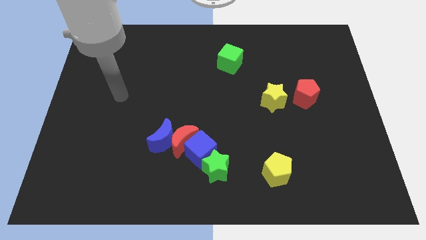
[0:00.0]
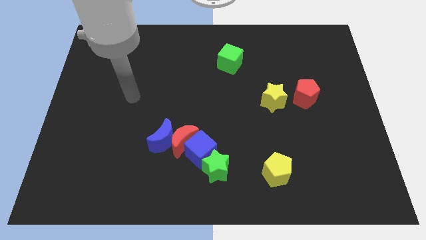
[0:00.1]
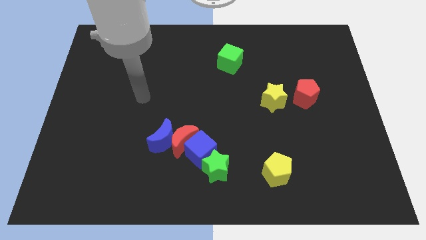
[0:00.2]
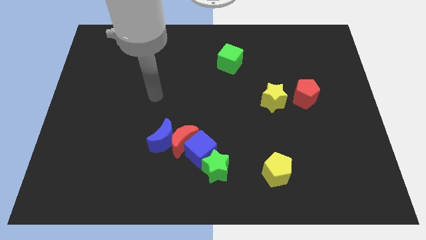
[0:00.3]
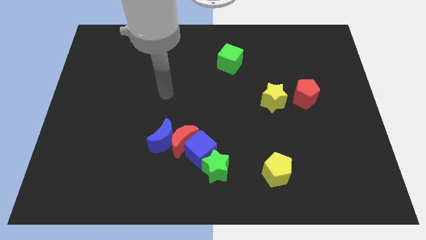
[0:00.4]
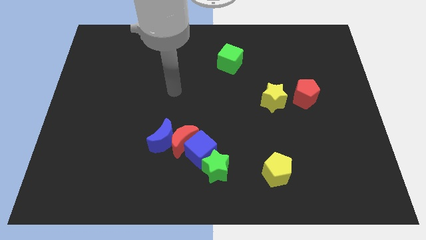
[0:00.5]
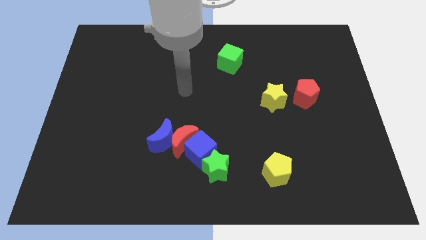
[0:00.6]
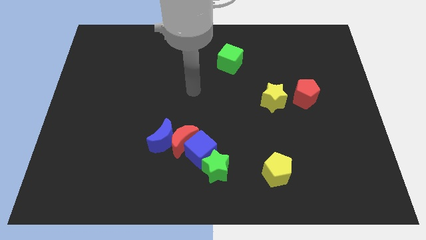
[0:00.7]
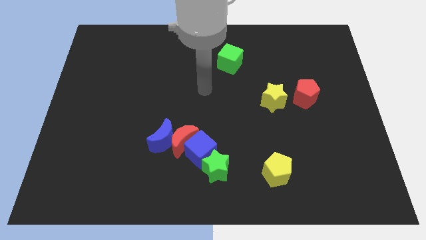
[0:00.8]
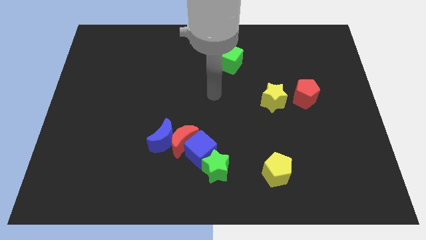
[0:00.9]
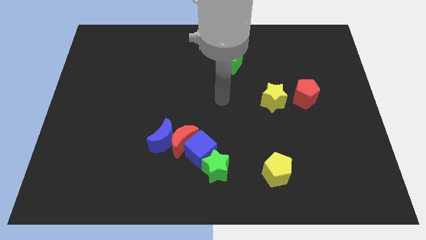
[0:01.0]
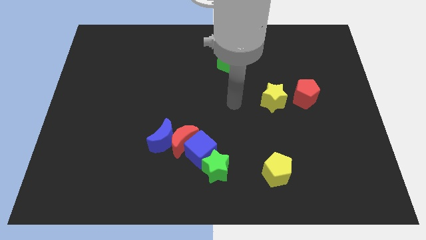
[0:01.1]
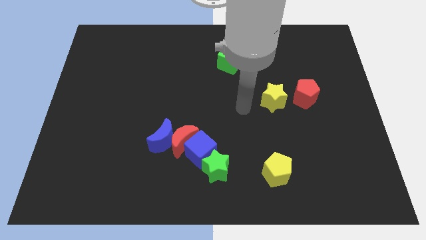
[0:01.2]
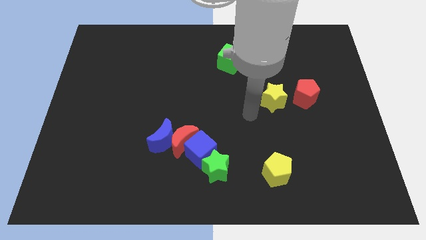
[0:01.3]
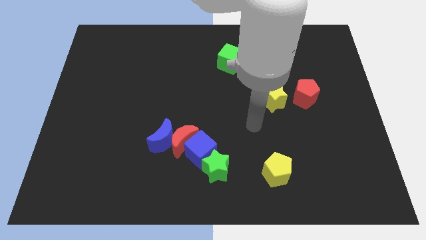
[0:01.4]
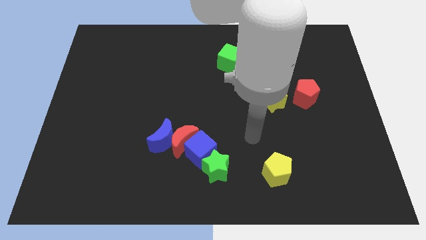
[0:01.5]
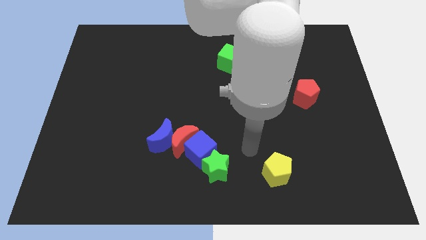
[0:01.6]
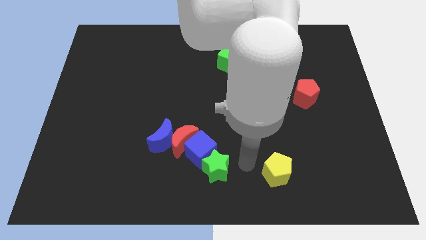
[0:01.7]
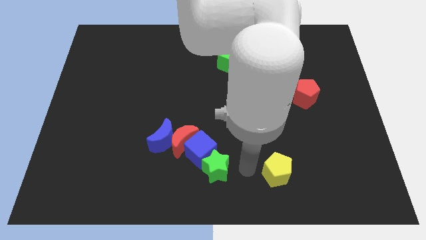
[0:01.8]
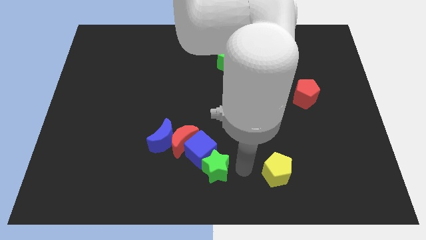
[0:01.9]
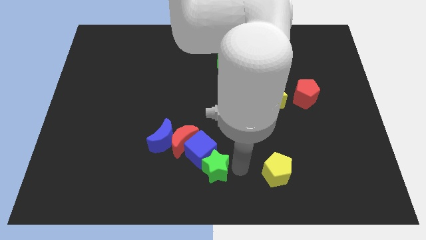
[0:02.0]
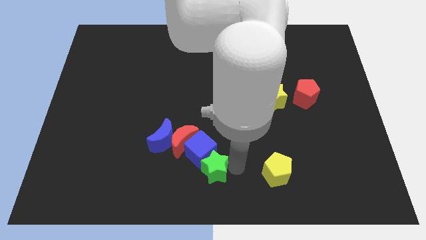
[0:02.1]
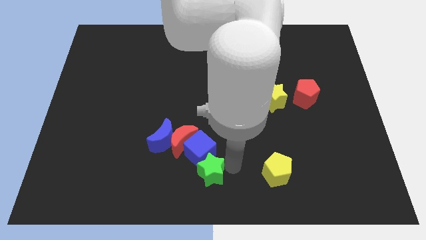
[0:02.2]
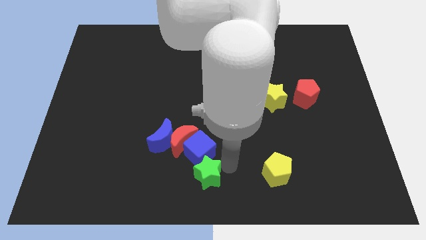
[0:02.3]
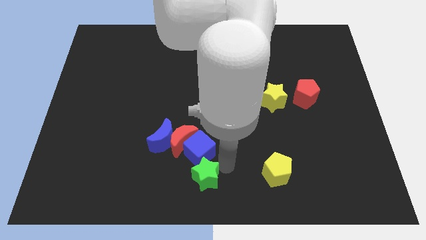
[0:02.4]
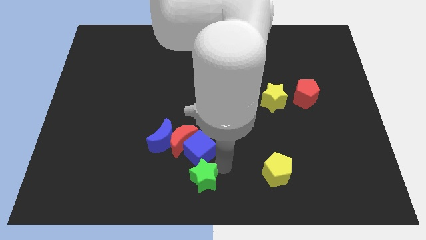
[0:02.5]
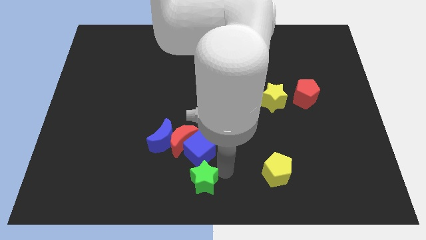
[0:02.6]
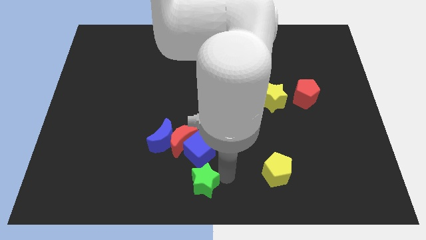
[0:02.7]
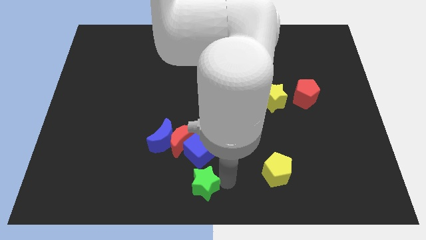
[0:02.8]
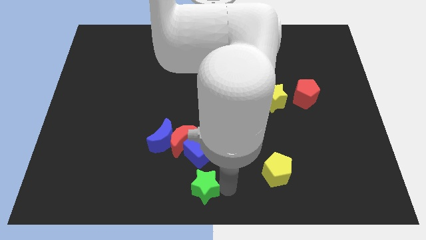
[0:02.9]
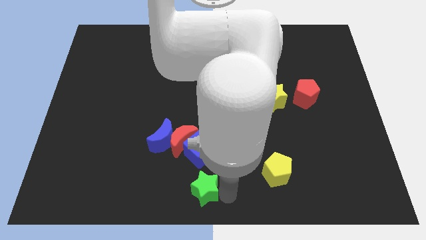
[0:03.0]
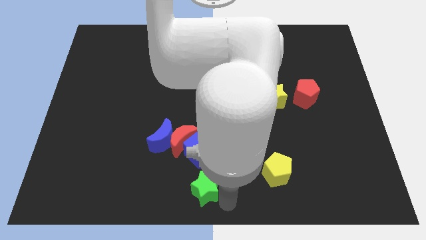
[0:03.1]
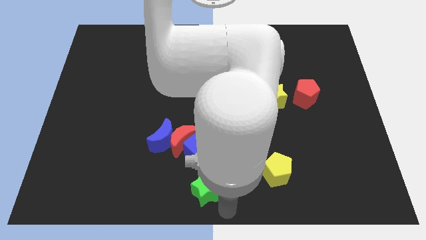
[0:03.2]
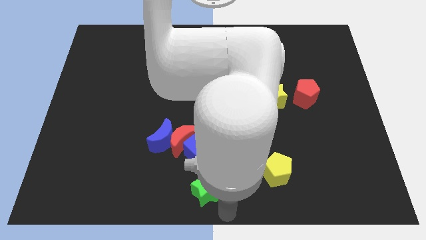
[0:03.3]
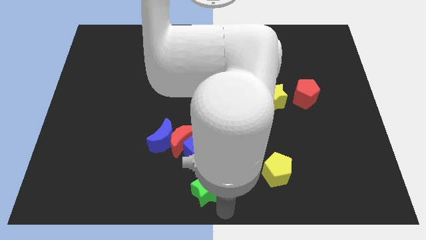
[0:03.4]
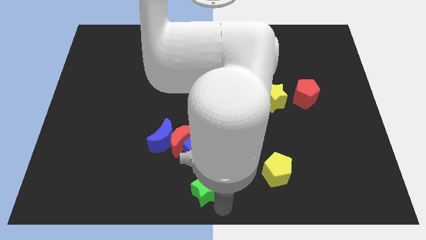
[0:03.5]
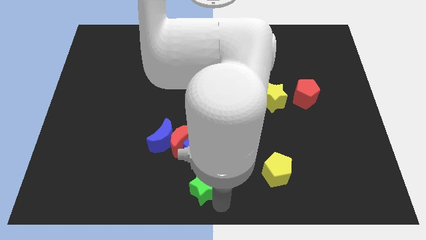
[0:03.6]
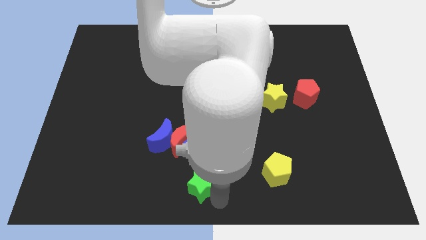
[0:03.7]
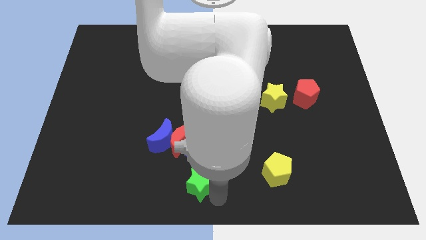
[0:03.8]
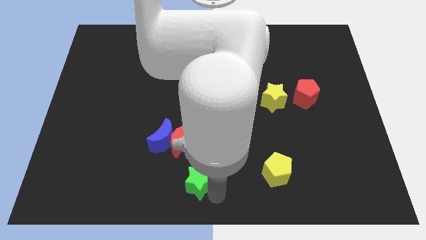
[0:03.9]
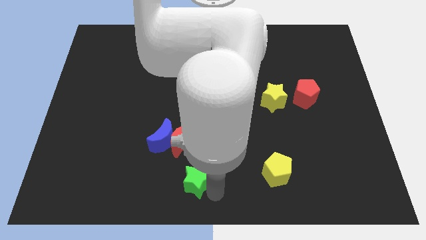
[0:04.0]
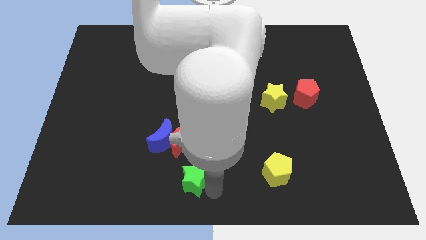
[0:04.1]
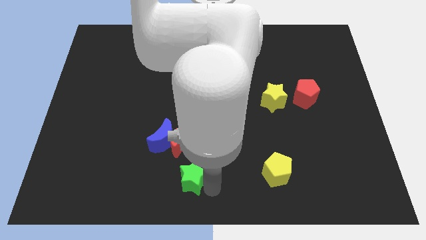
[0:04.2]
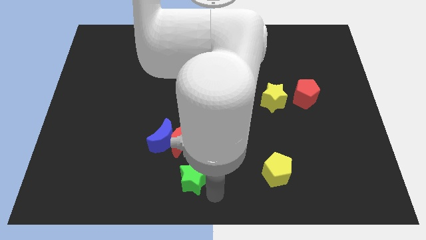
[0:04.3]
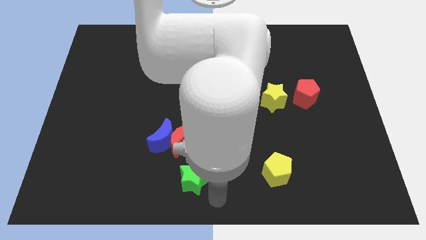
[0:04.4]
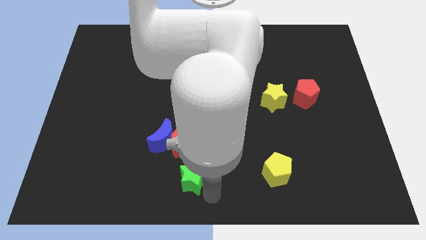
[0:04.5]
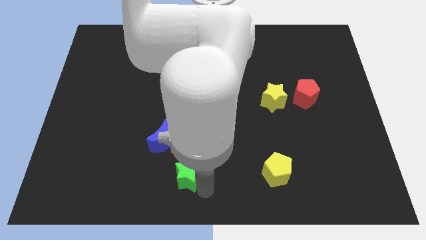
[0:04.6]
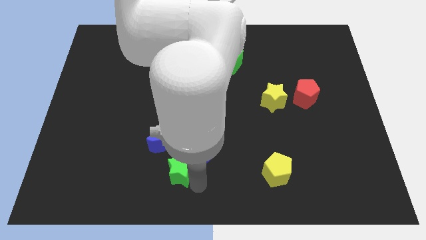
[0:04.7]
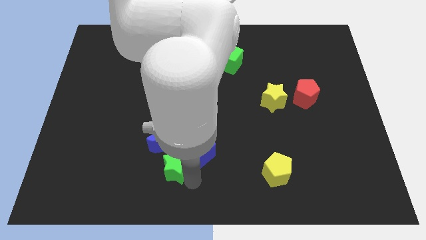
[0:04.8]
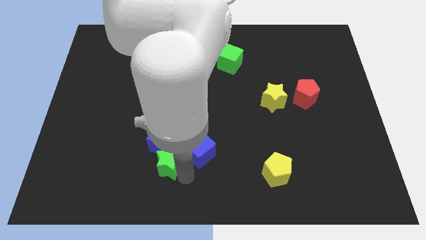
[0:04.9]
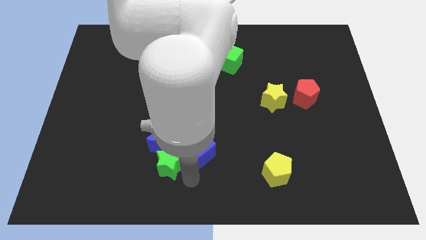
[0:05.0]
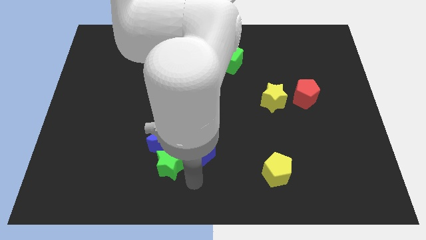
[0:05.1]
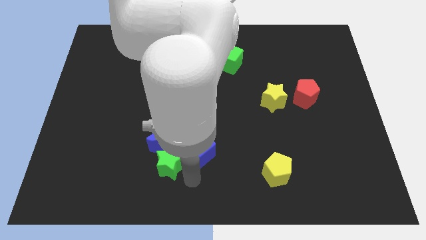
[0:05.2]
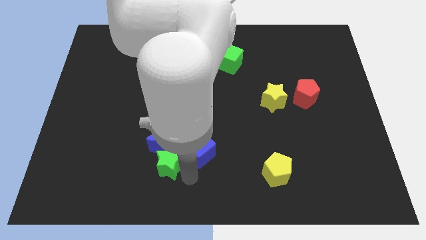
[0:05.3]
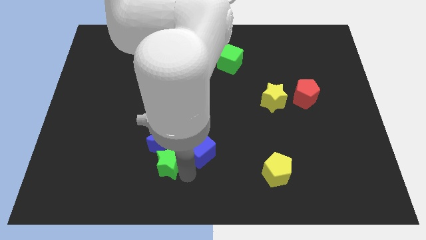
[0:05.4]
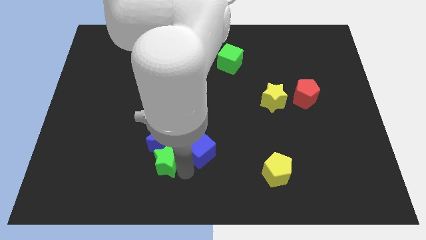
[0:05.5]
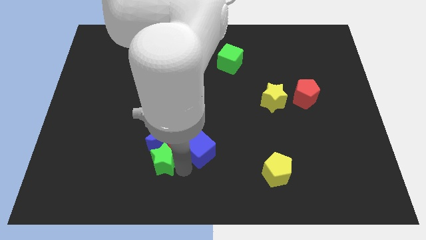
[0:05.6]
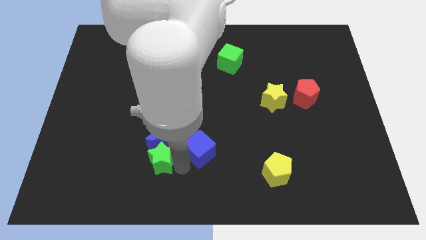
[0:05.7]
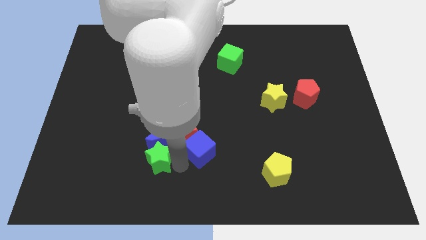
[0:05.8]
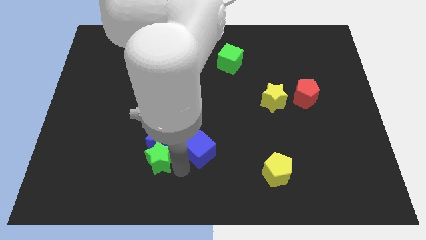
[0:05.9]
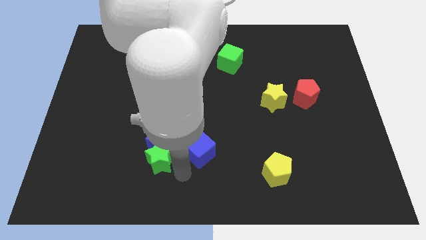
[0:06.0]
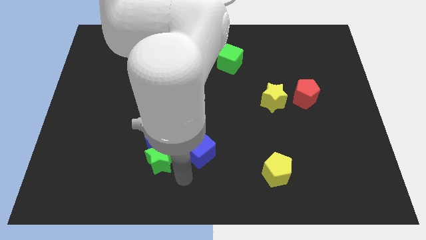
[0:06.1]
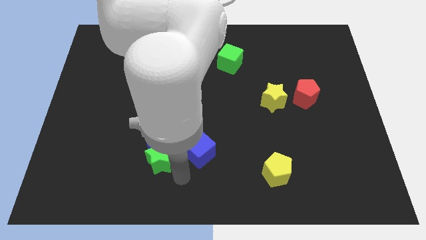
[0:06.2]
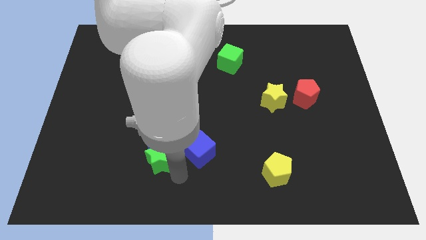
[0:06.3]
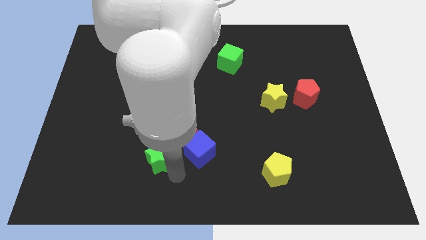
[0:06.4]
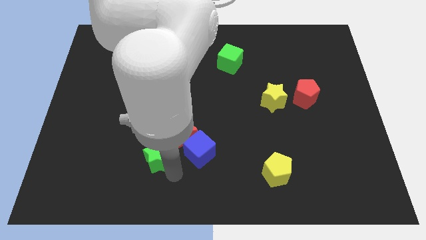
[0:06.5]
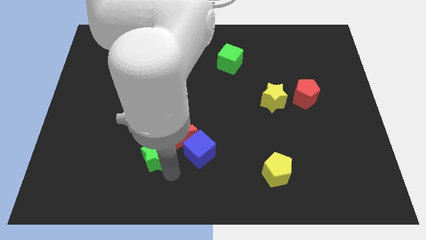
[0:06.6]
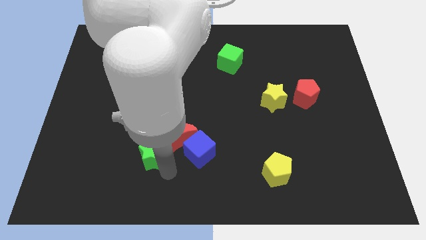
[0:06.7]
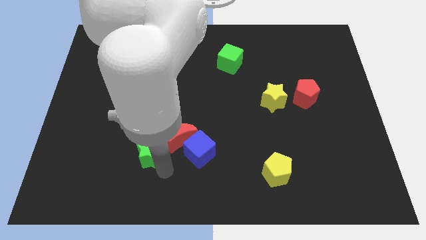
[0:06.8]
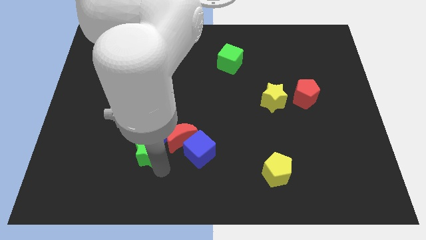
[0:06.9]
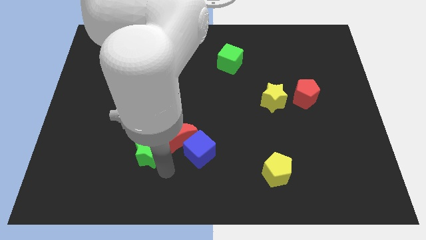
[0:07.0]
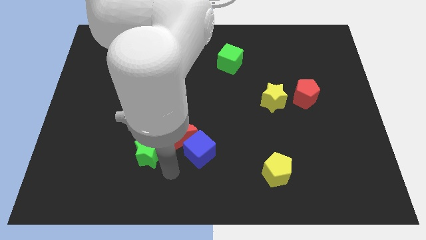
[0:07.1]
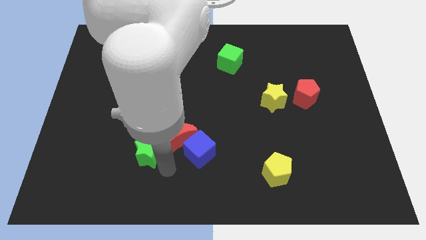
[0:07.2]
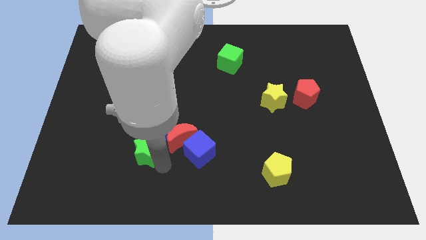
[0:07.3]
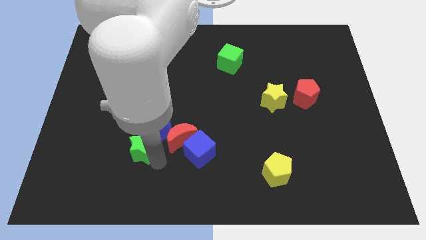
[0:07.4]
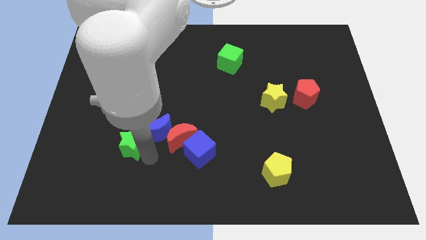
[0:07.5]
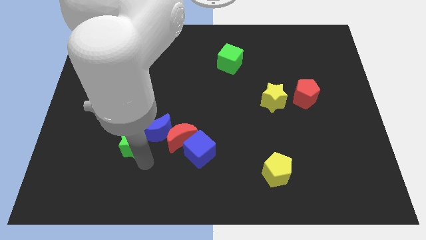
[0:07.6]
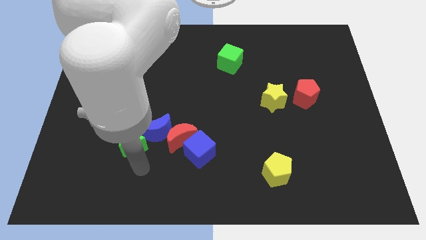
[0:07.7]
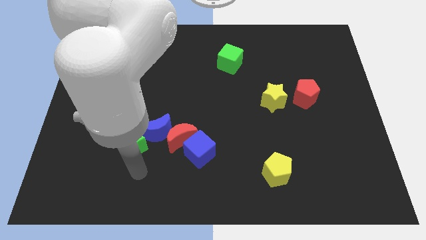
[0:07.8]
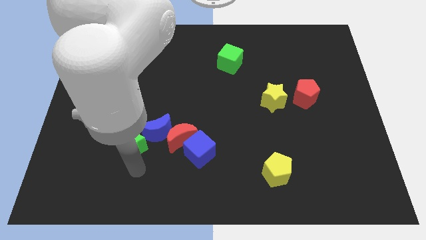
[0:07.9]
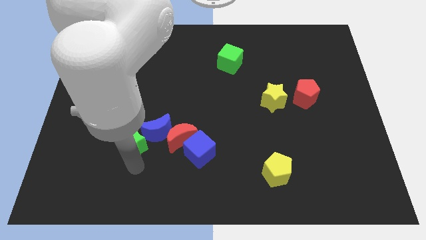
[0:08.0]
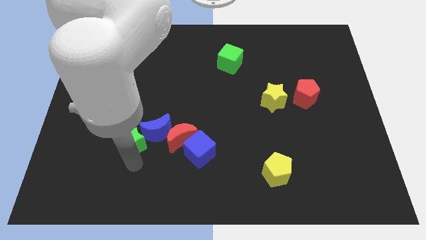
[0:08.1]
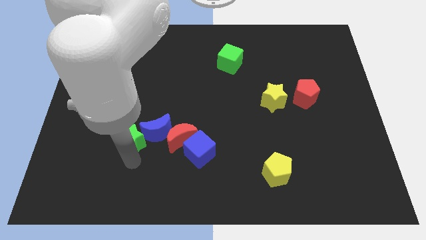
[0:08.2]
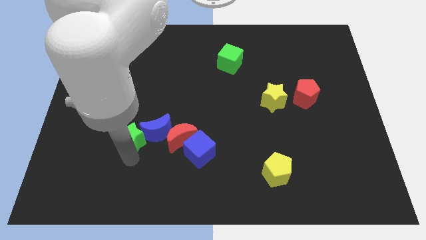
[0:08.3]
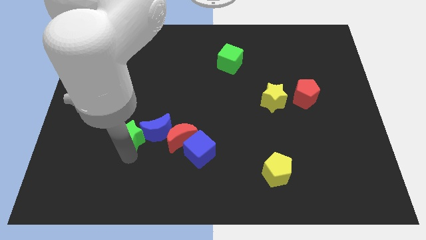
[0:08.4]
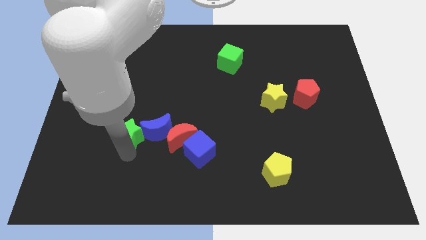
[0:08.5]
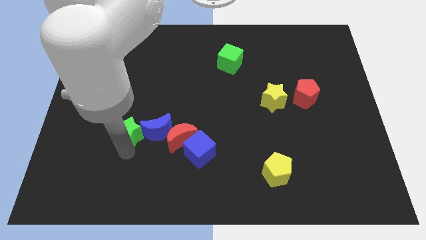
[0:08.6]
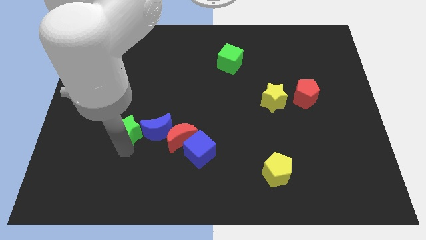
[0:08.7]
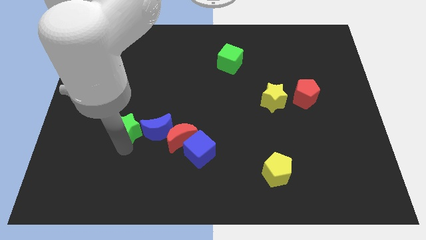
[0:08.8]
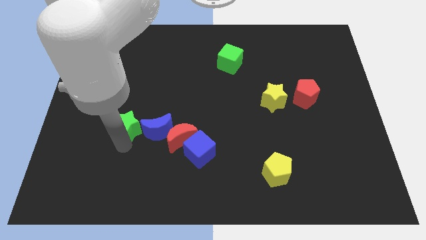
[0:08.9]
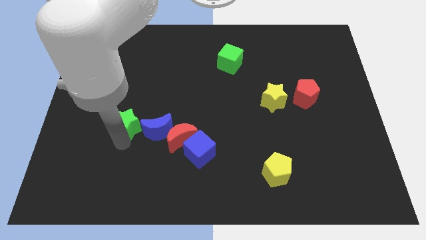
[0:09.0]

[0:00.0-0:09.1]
slide the green star upwards and to the left diagonally
